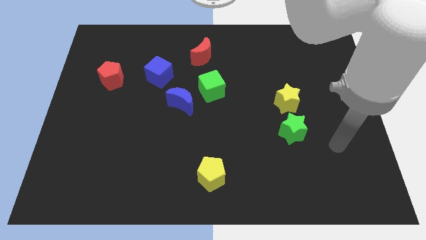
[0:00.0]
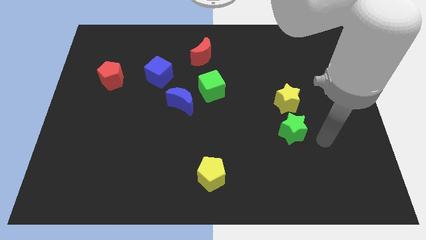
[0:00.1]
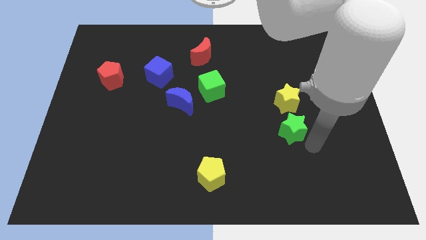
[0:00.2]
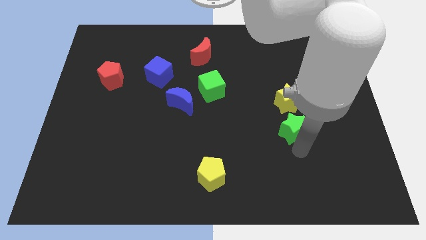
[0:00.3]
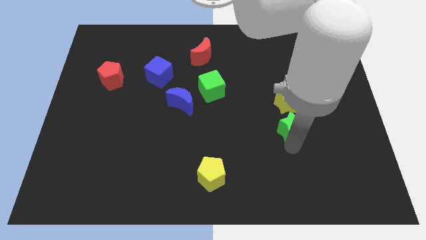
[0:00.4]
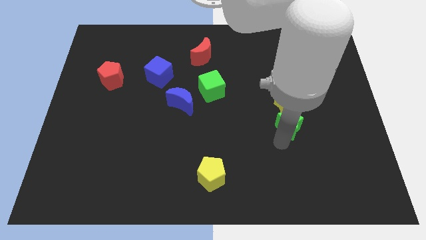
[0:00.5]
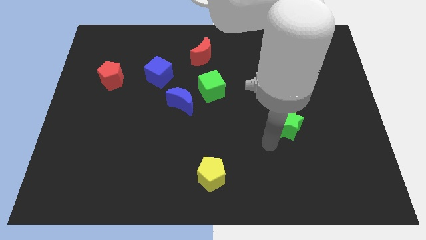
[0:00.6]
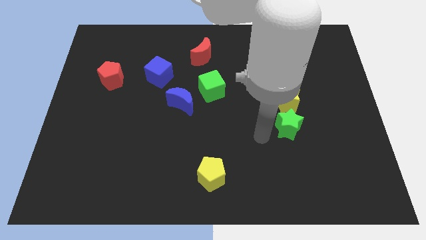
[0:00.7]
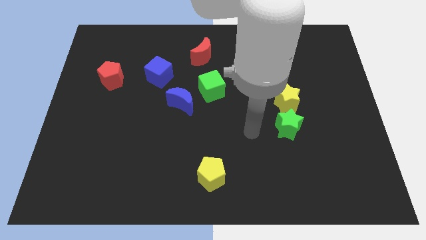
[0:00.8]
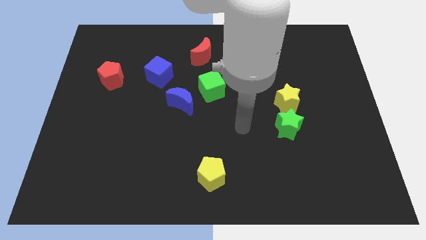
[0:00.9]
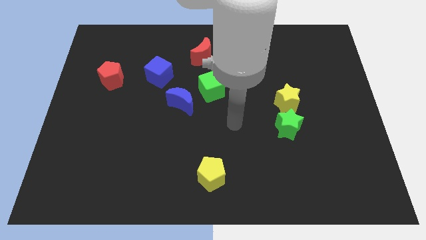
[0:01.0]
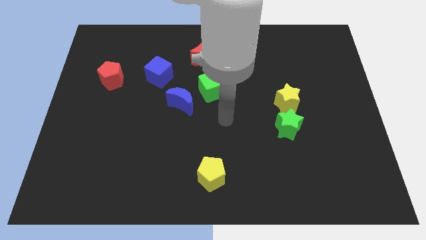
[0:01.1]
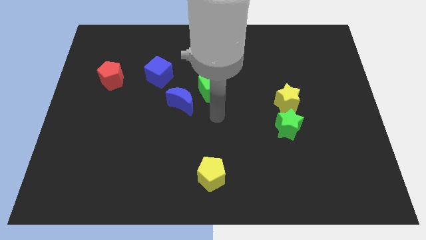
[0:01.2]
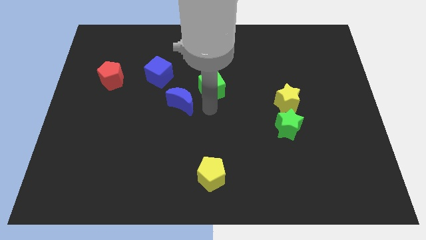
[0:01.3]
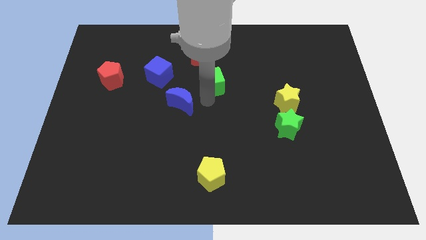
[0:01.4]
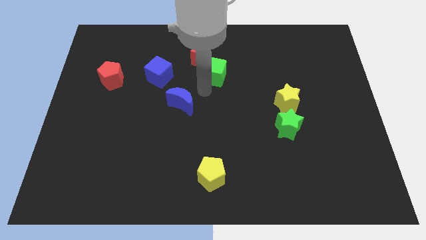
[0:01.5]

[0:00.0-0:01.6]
move the blue moon away from the green cube

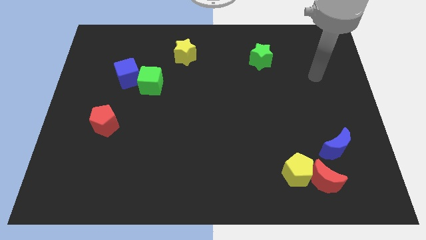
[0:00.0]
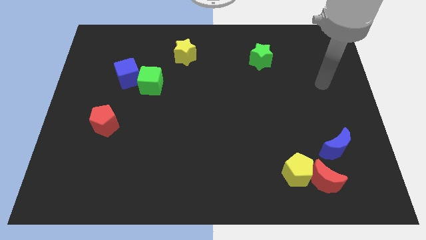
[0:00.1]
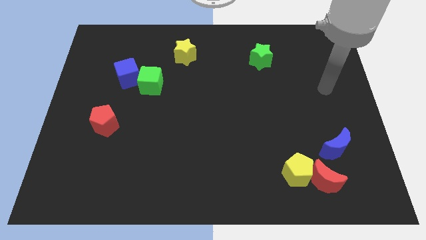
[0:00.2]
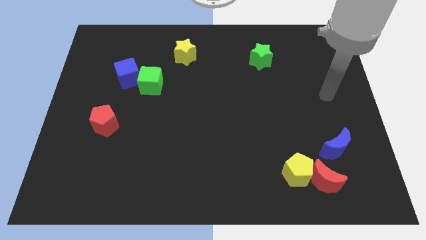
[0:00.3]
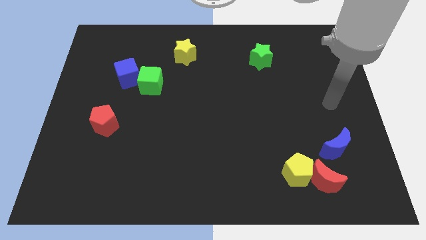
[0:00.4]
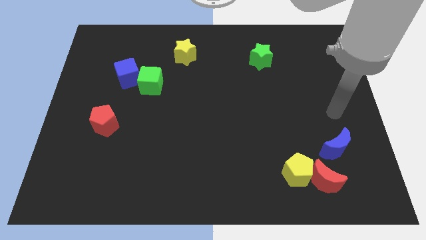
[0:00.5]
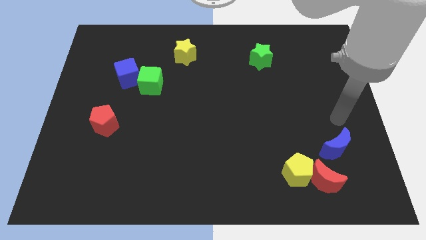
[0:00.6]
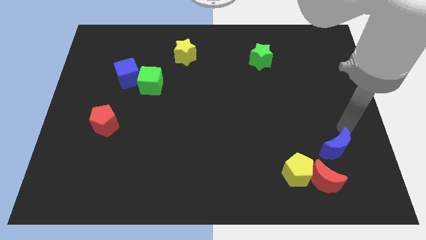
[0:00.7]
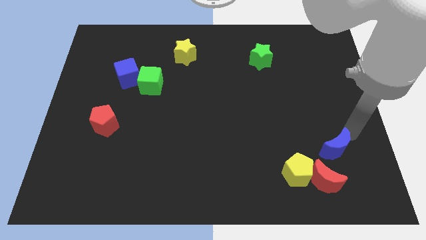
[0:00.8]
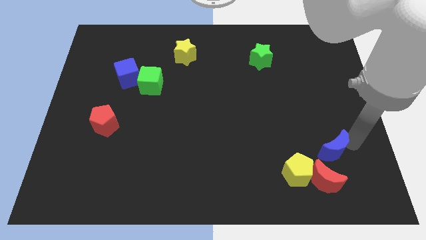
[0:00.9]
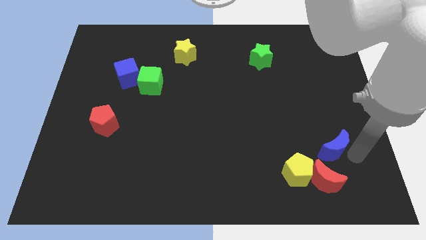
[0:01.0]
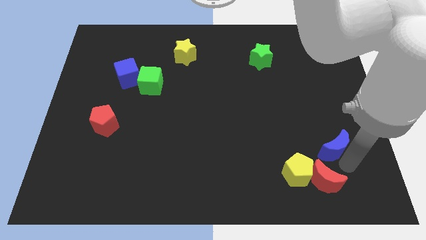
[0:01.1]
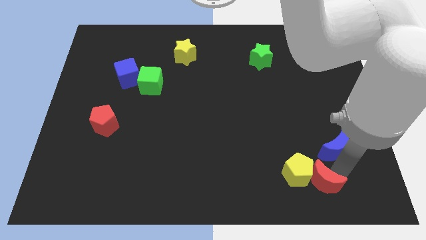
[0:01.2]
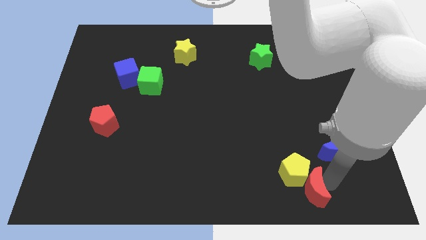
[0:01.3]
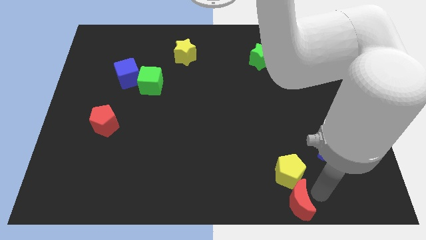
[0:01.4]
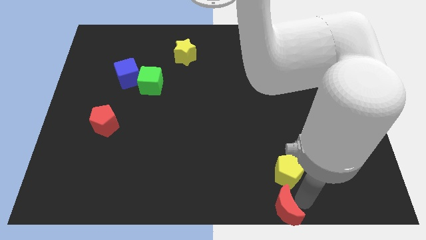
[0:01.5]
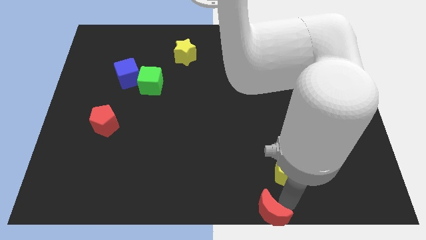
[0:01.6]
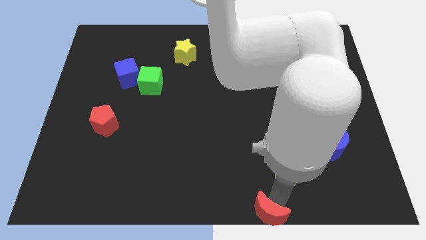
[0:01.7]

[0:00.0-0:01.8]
pull the yellow pentagon apart from the red moon

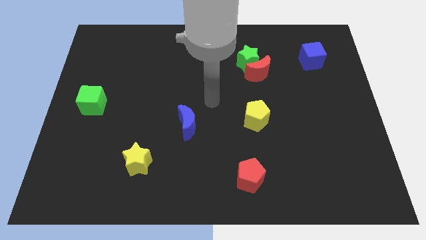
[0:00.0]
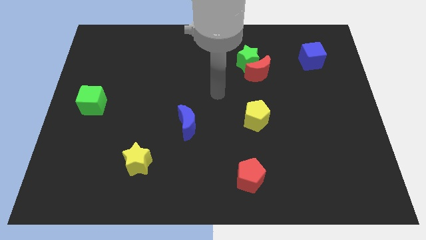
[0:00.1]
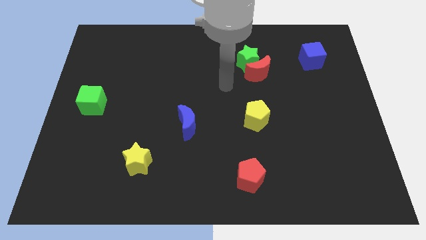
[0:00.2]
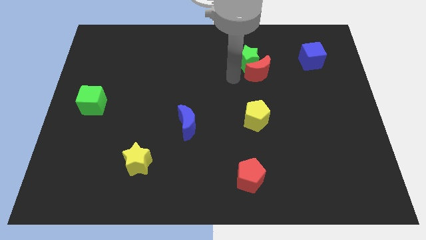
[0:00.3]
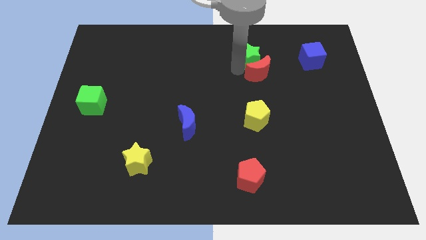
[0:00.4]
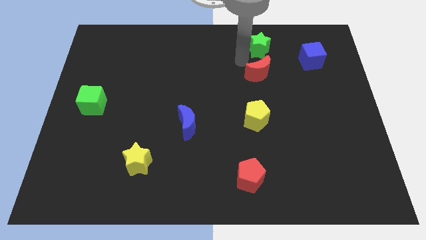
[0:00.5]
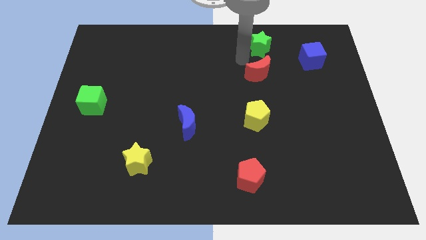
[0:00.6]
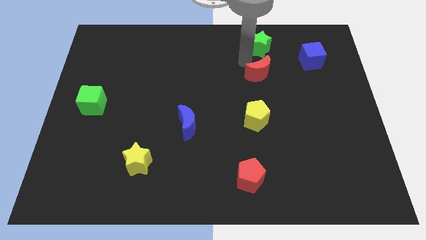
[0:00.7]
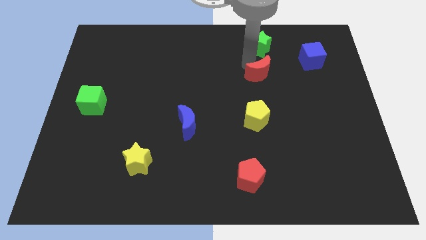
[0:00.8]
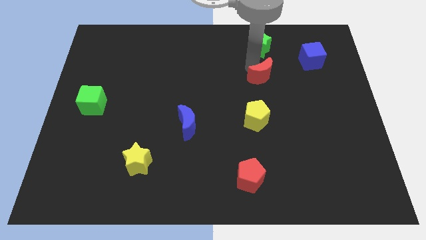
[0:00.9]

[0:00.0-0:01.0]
pull the red moon apart from the green star

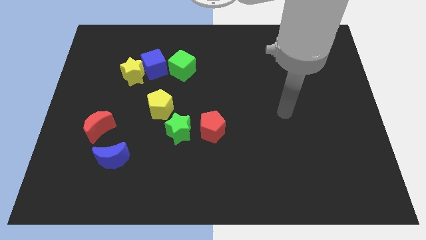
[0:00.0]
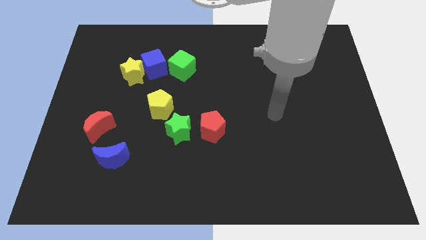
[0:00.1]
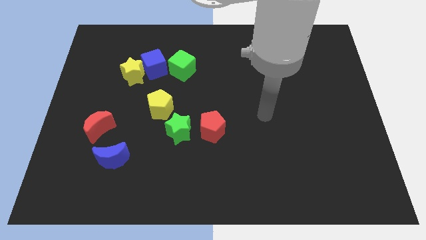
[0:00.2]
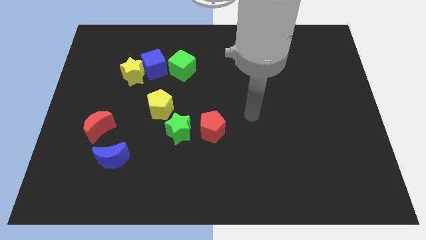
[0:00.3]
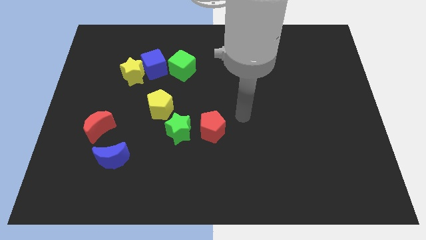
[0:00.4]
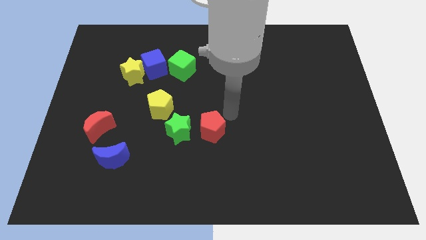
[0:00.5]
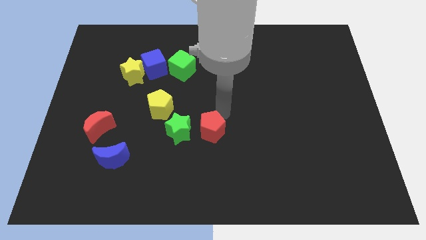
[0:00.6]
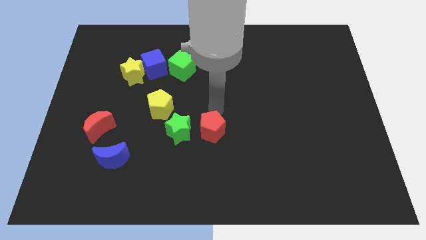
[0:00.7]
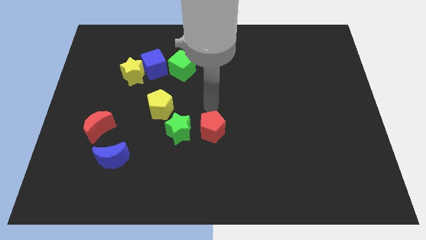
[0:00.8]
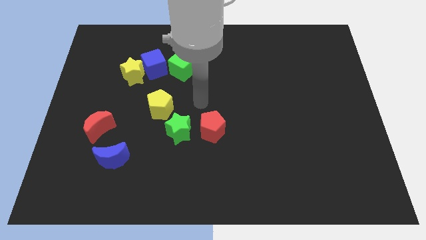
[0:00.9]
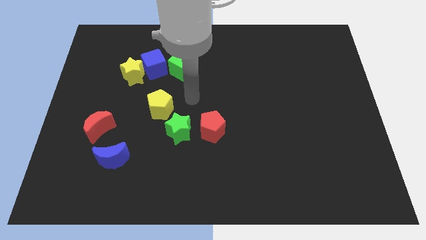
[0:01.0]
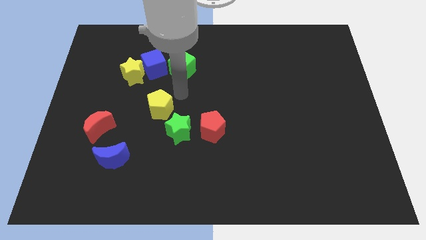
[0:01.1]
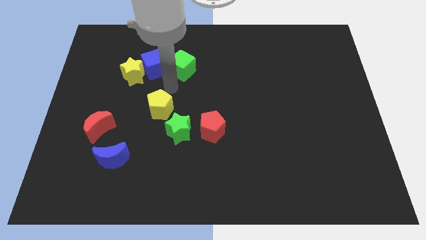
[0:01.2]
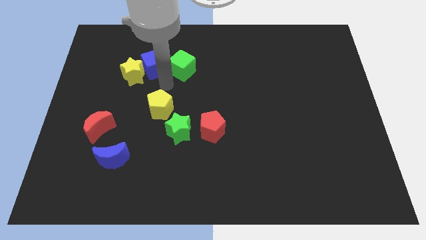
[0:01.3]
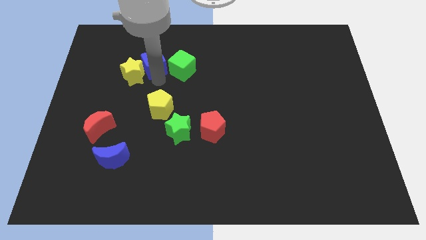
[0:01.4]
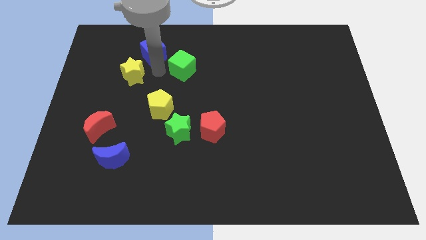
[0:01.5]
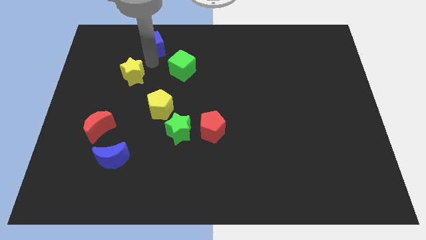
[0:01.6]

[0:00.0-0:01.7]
pull the yellow star apart from the blue cube

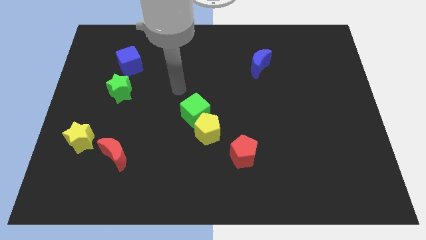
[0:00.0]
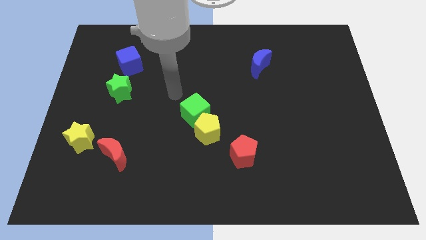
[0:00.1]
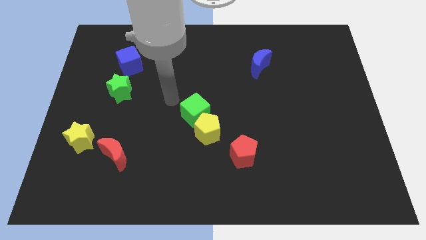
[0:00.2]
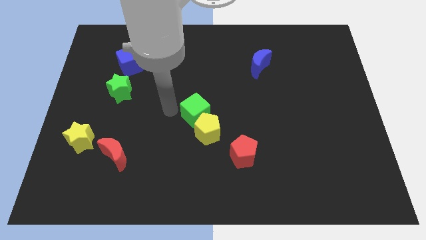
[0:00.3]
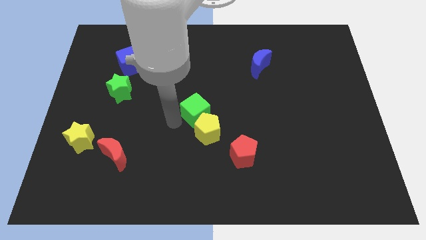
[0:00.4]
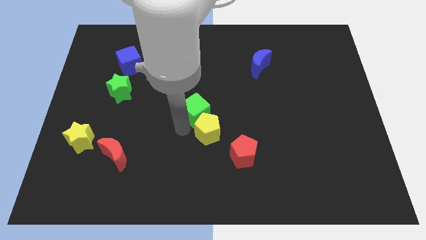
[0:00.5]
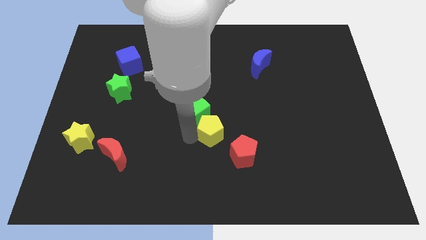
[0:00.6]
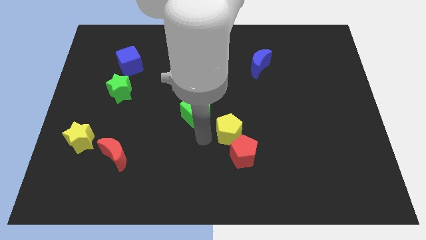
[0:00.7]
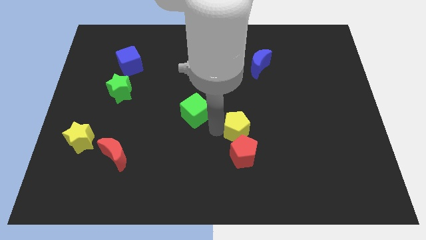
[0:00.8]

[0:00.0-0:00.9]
move the green cube away from the yellow pentagon

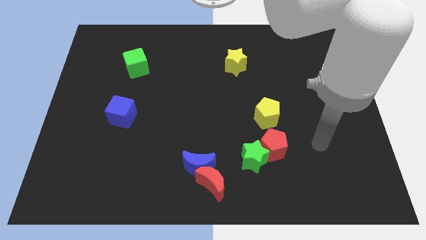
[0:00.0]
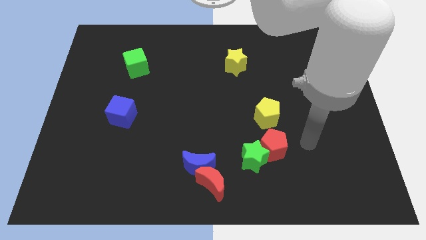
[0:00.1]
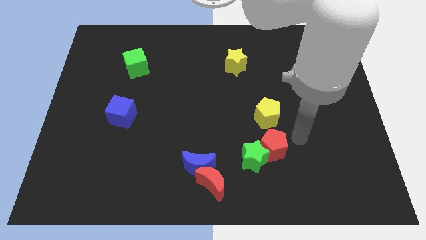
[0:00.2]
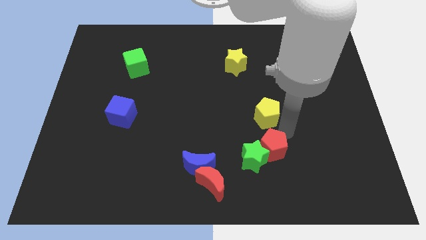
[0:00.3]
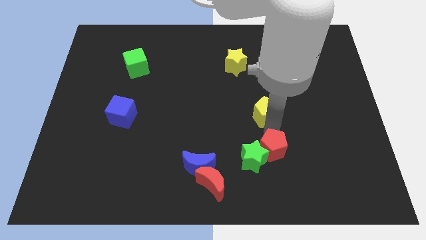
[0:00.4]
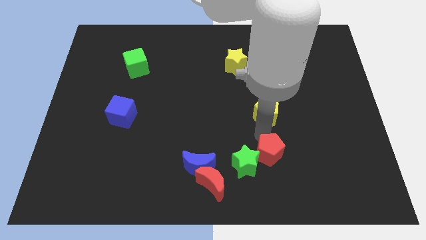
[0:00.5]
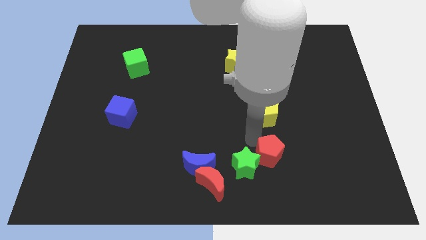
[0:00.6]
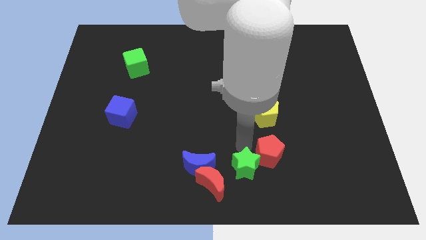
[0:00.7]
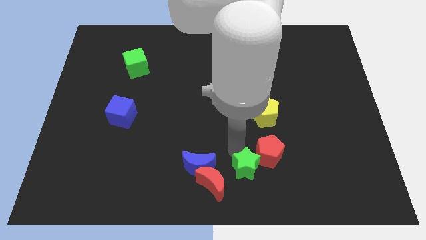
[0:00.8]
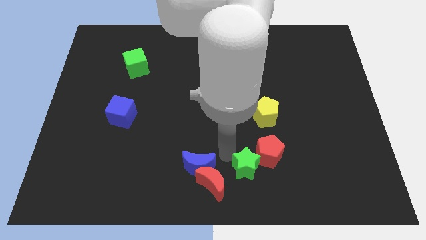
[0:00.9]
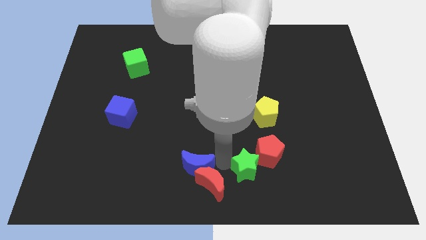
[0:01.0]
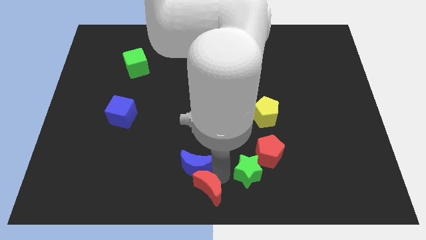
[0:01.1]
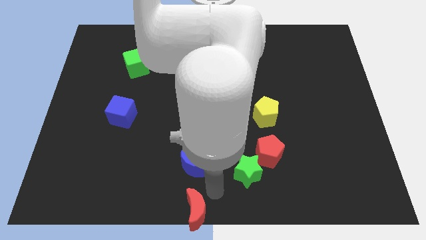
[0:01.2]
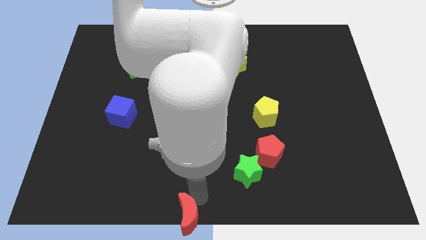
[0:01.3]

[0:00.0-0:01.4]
move the blue moon away from the red moon

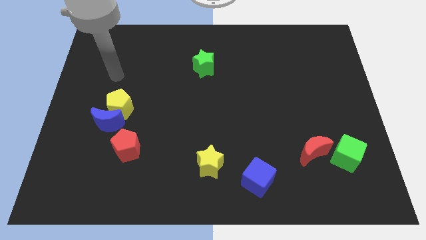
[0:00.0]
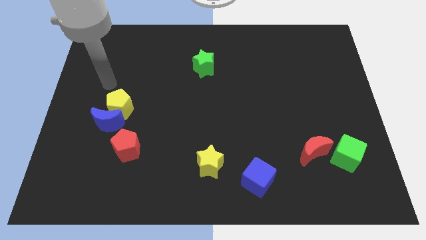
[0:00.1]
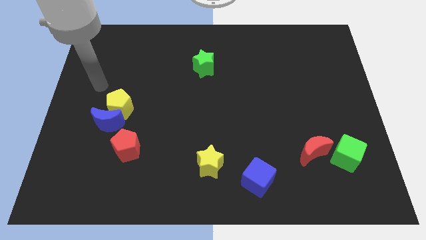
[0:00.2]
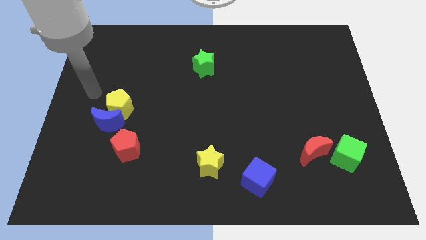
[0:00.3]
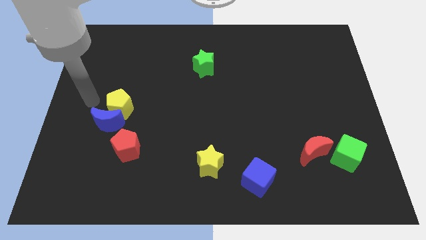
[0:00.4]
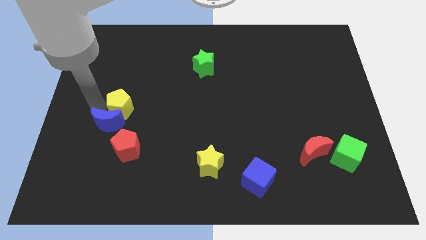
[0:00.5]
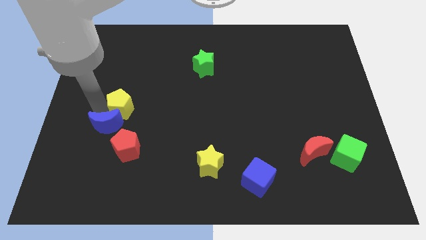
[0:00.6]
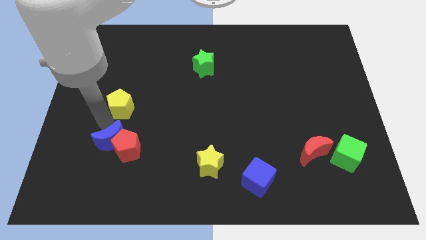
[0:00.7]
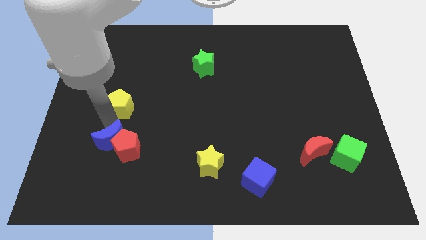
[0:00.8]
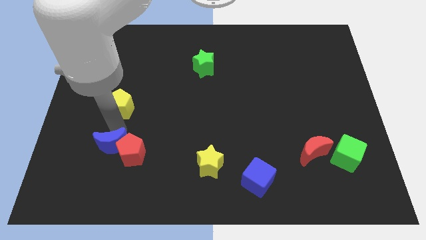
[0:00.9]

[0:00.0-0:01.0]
pull the yellow pentagon apart from the blue moon

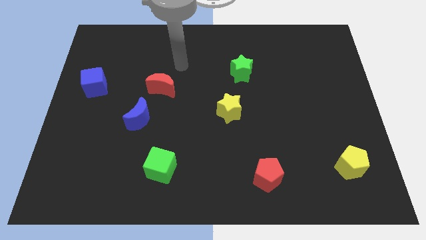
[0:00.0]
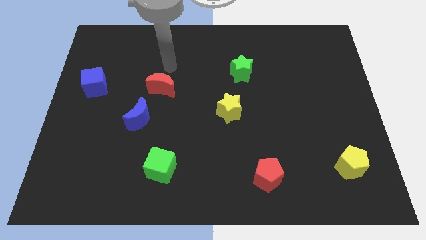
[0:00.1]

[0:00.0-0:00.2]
separate the red moon from the blue moon
